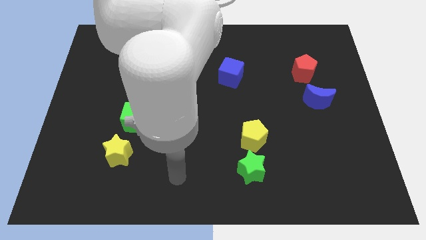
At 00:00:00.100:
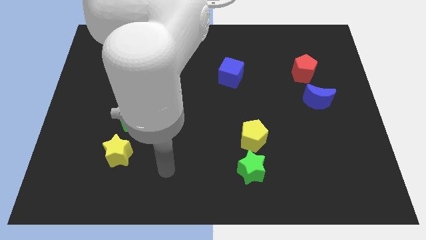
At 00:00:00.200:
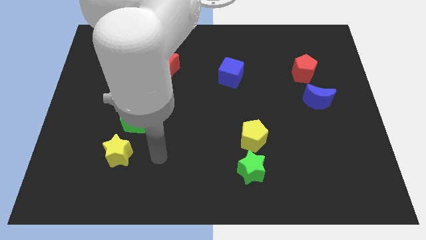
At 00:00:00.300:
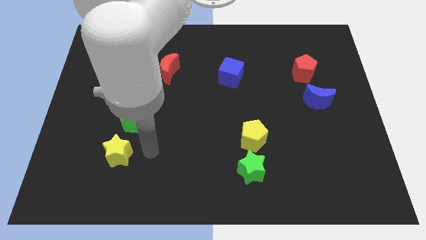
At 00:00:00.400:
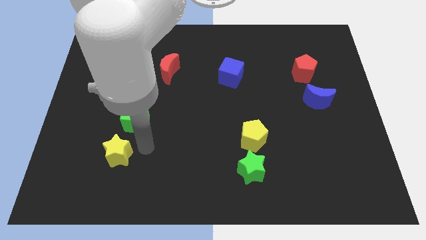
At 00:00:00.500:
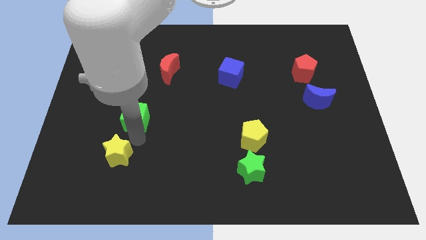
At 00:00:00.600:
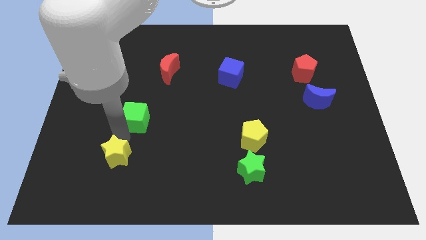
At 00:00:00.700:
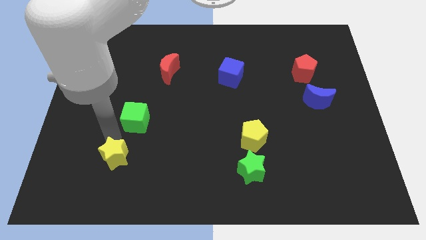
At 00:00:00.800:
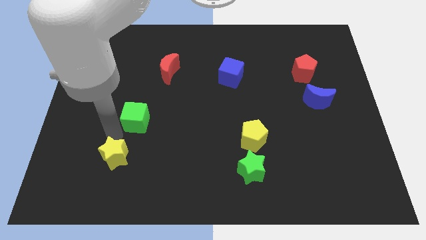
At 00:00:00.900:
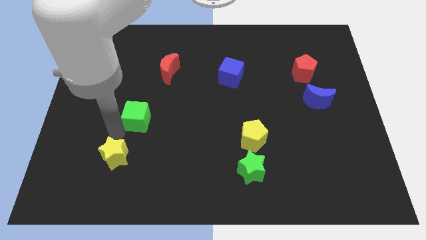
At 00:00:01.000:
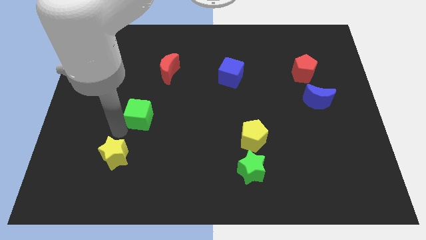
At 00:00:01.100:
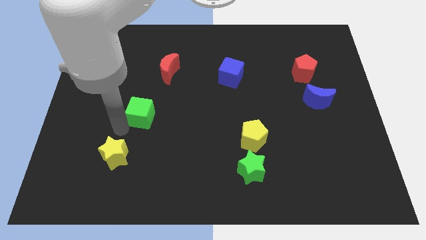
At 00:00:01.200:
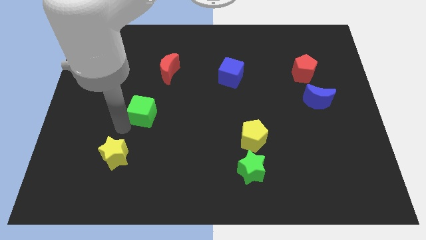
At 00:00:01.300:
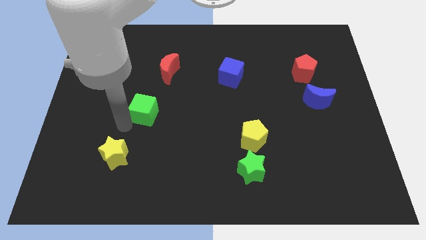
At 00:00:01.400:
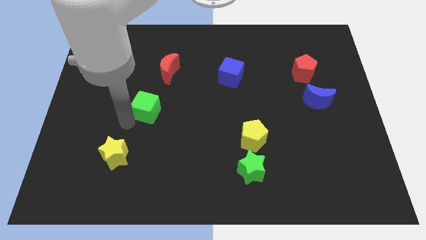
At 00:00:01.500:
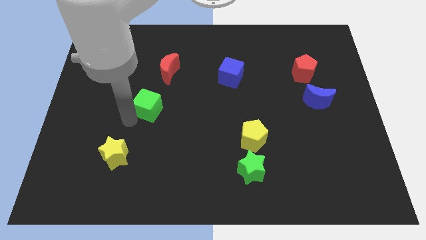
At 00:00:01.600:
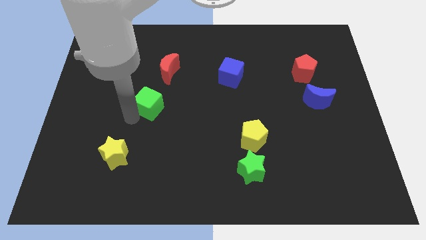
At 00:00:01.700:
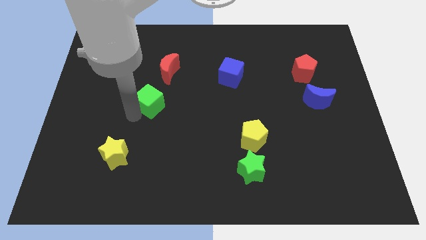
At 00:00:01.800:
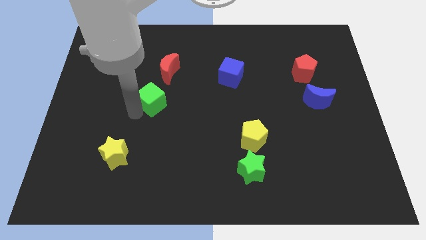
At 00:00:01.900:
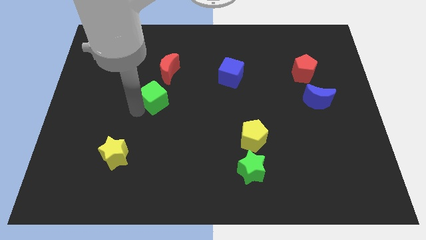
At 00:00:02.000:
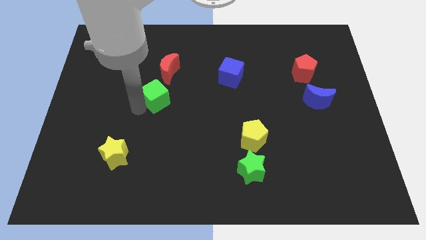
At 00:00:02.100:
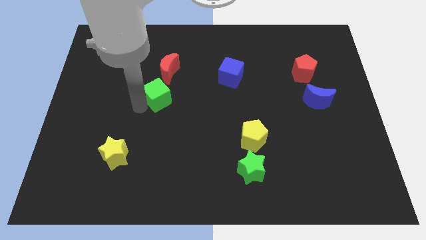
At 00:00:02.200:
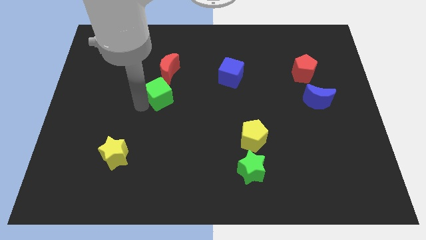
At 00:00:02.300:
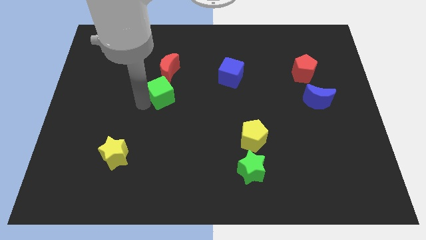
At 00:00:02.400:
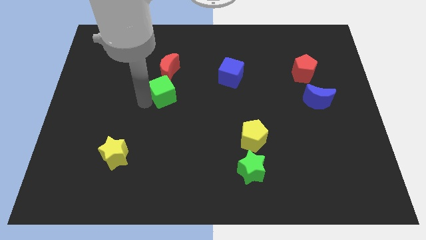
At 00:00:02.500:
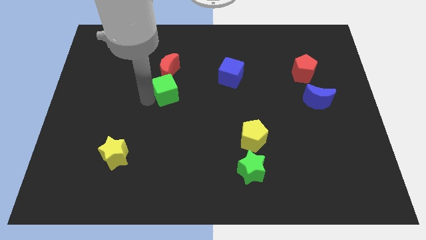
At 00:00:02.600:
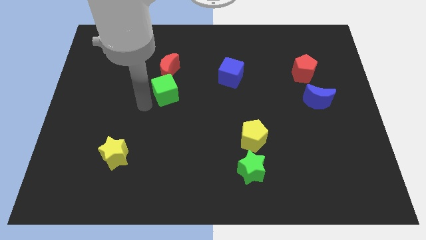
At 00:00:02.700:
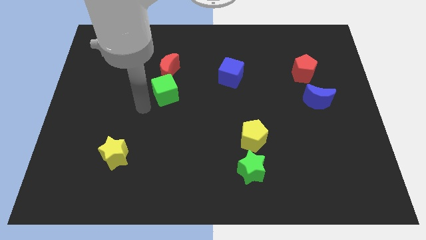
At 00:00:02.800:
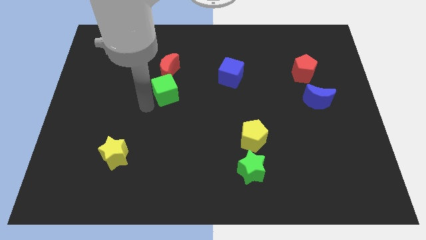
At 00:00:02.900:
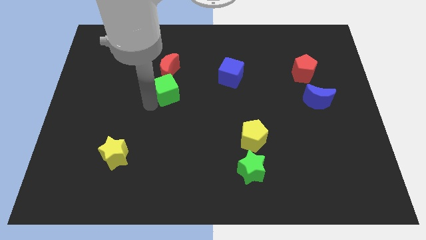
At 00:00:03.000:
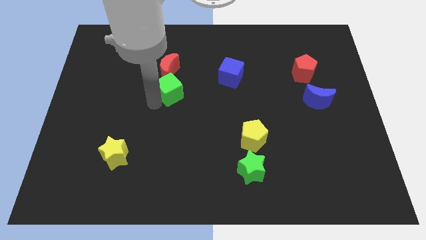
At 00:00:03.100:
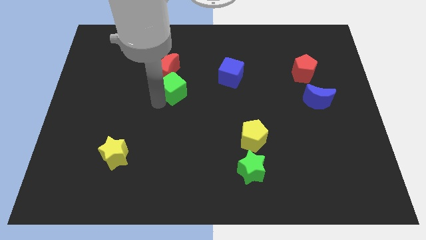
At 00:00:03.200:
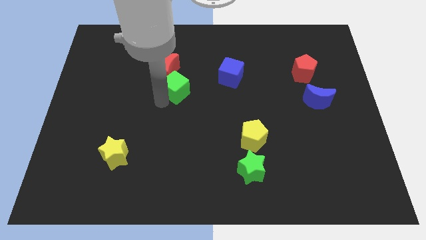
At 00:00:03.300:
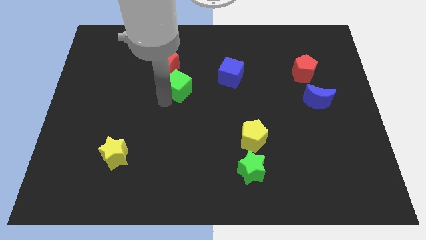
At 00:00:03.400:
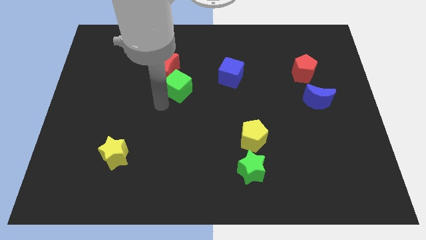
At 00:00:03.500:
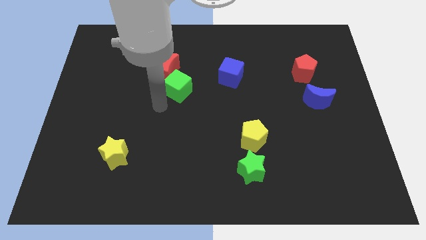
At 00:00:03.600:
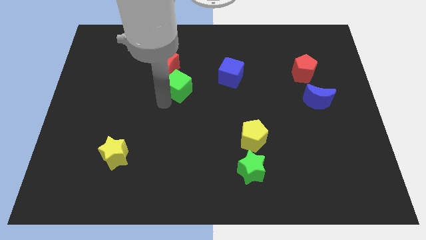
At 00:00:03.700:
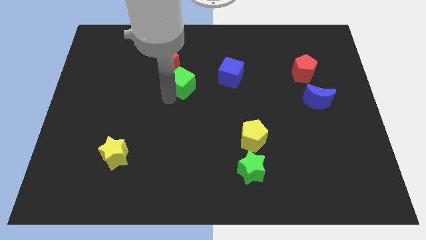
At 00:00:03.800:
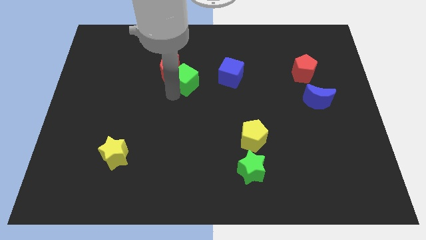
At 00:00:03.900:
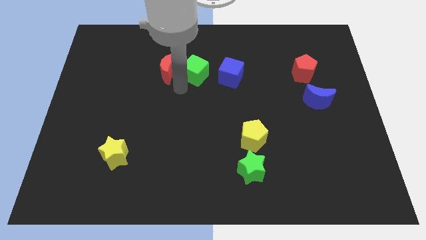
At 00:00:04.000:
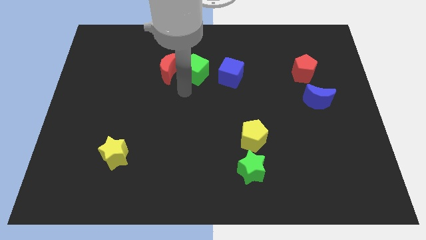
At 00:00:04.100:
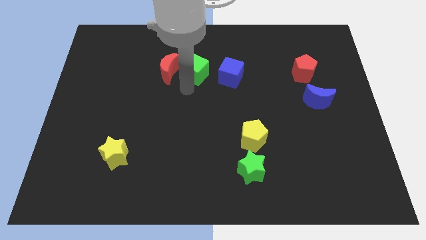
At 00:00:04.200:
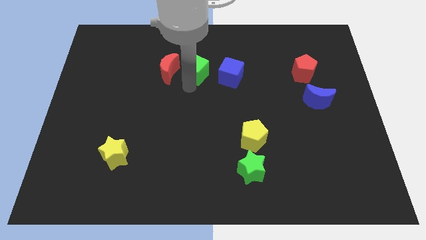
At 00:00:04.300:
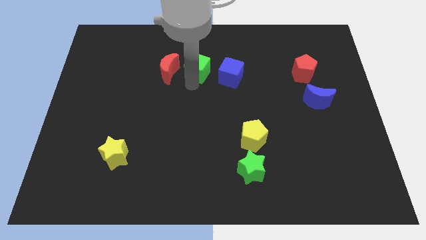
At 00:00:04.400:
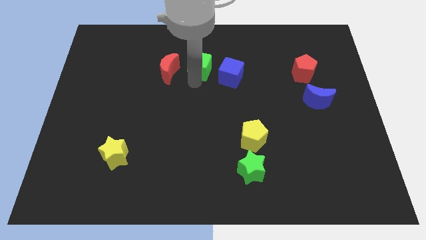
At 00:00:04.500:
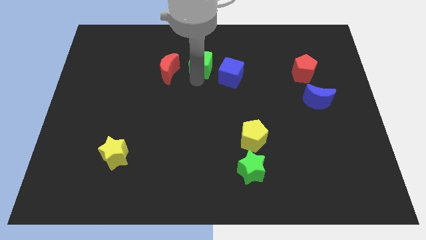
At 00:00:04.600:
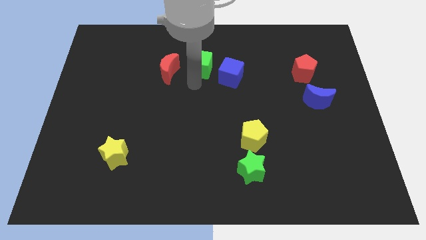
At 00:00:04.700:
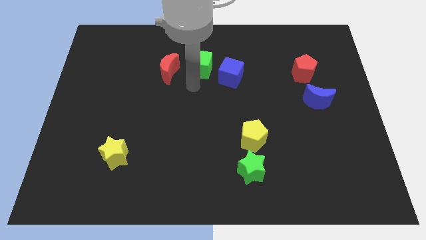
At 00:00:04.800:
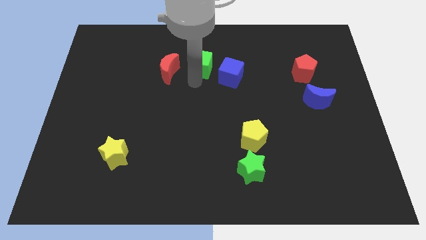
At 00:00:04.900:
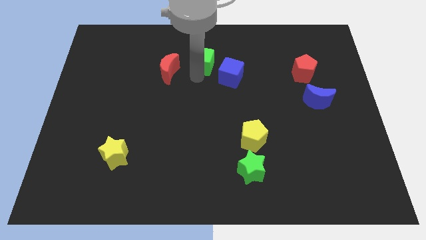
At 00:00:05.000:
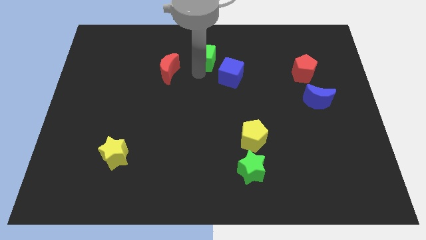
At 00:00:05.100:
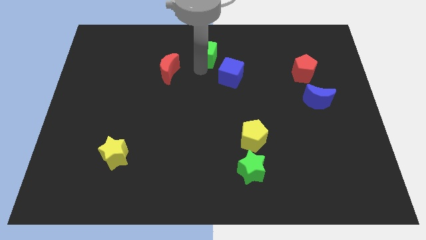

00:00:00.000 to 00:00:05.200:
push the green cube to the top side

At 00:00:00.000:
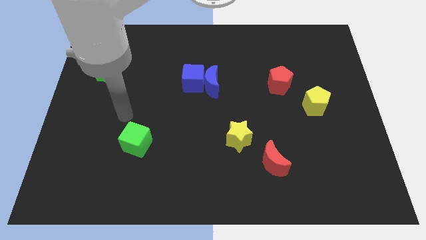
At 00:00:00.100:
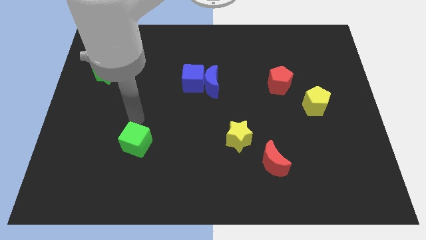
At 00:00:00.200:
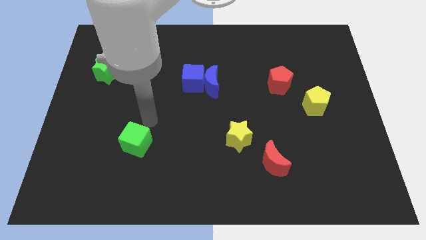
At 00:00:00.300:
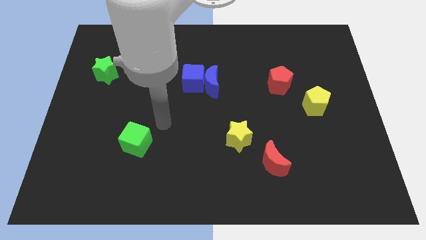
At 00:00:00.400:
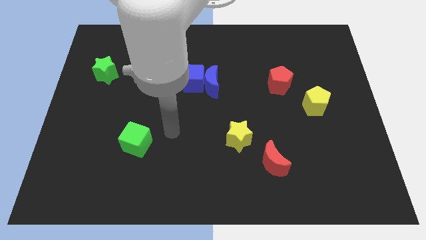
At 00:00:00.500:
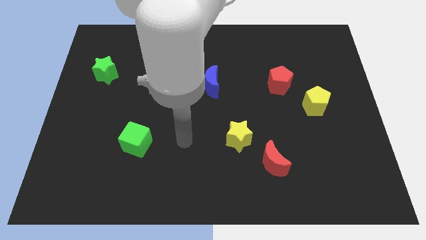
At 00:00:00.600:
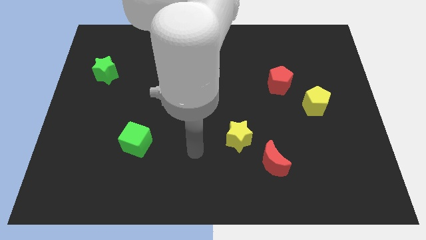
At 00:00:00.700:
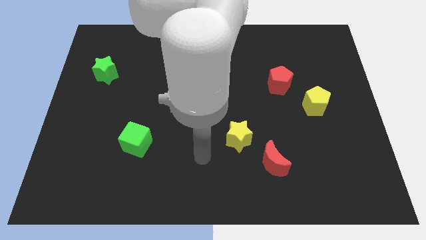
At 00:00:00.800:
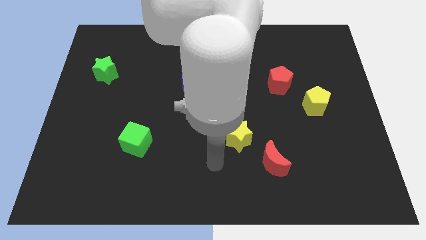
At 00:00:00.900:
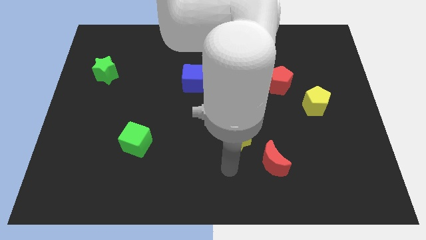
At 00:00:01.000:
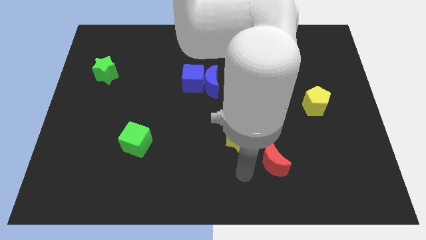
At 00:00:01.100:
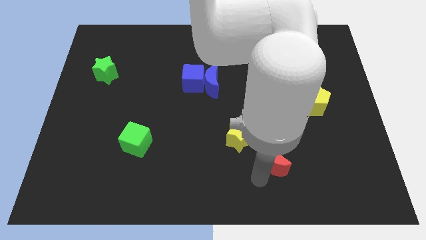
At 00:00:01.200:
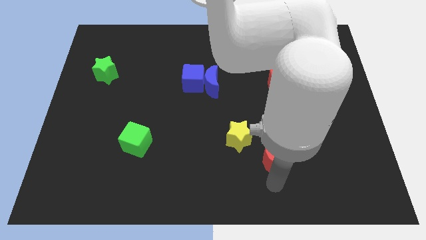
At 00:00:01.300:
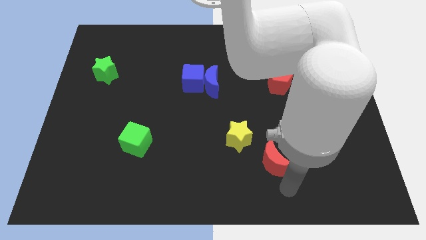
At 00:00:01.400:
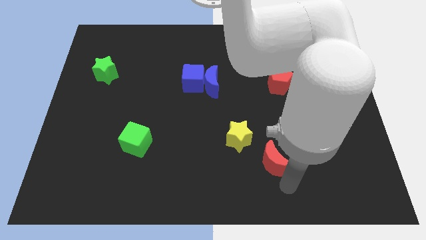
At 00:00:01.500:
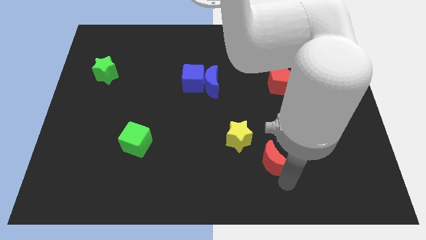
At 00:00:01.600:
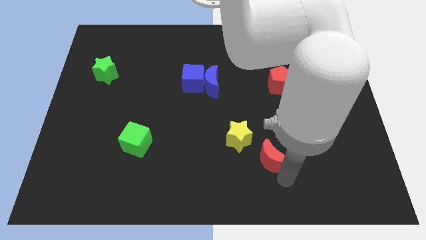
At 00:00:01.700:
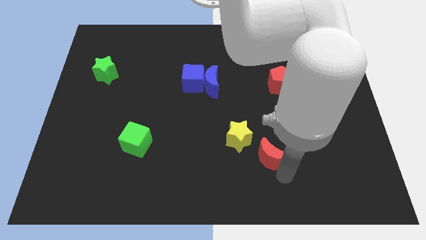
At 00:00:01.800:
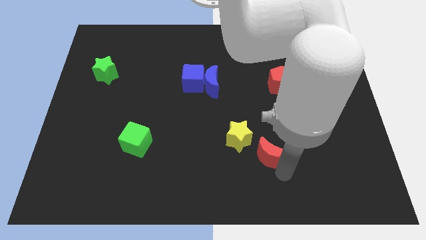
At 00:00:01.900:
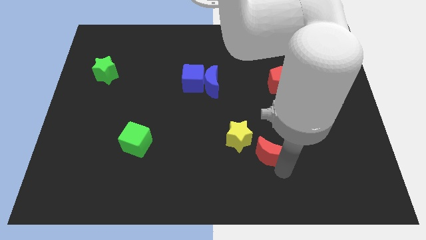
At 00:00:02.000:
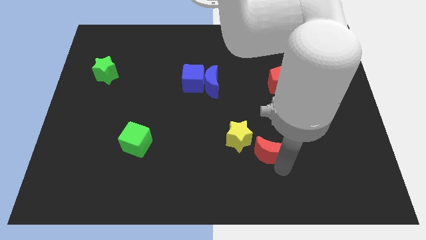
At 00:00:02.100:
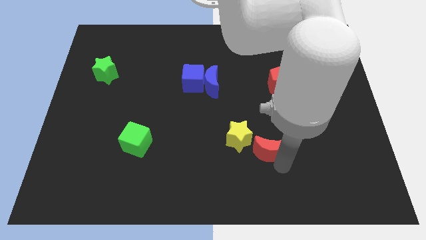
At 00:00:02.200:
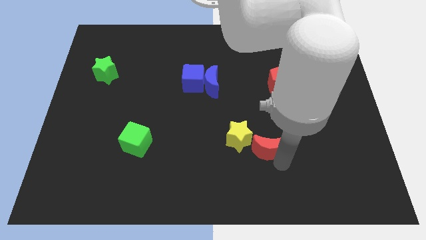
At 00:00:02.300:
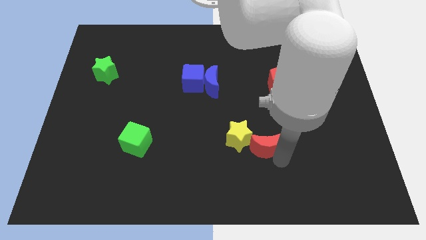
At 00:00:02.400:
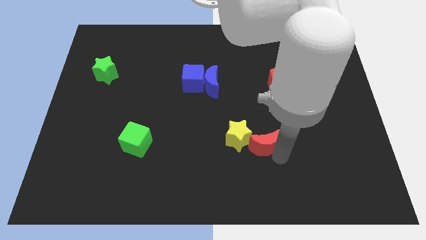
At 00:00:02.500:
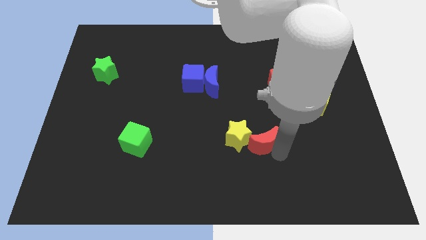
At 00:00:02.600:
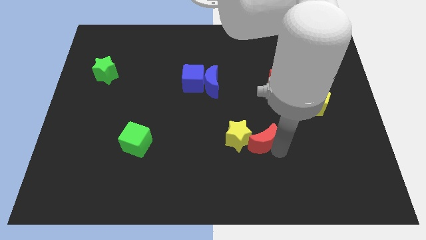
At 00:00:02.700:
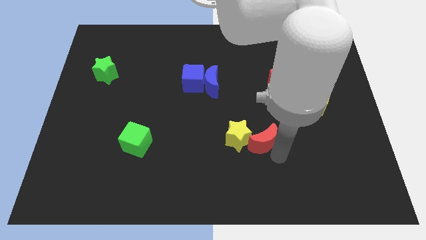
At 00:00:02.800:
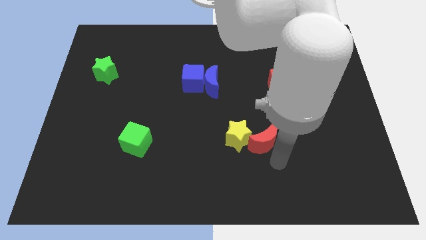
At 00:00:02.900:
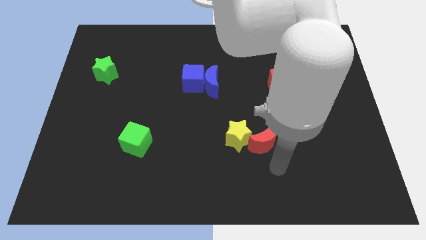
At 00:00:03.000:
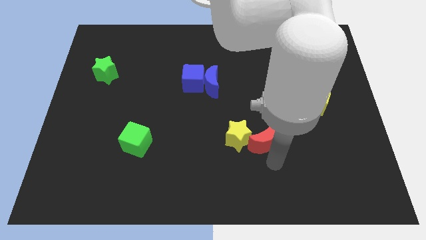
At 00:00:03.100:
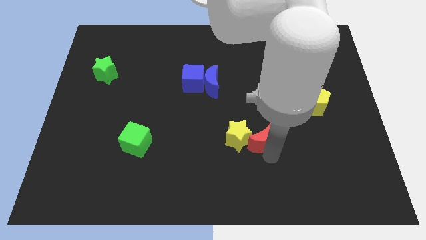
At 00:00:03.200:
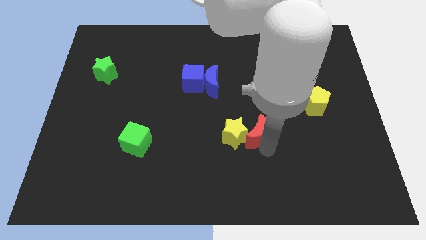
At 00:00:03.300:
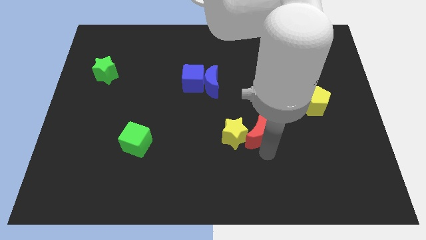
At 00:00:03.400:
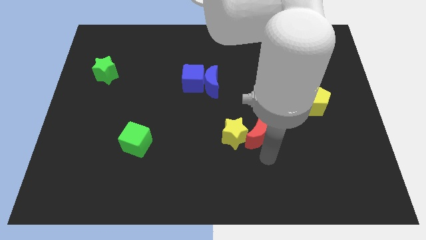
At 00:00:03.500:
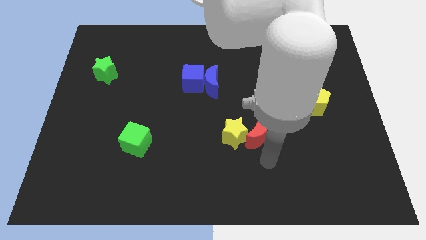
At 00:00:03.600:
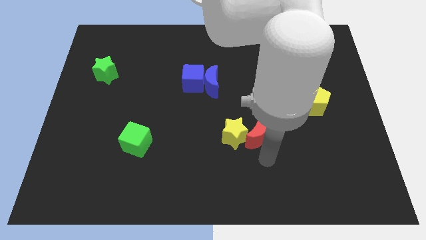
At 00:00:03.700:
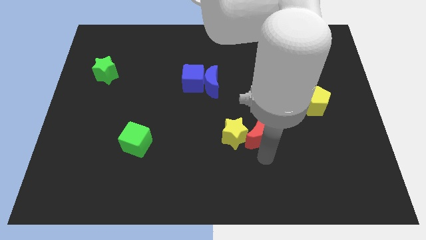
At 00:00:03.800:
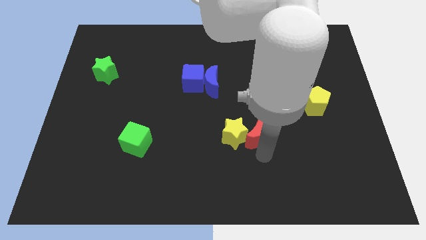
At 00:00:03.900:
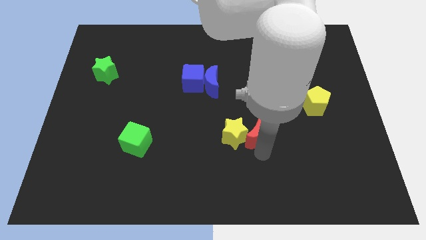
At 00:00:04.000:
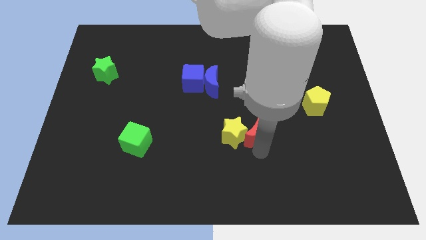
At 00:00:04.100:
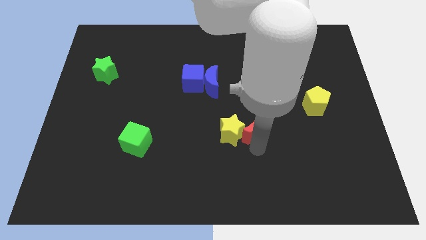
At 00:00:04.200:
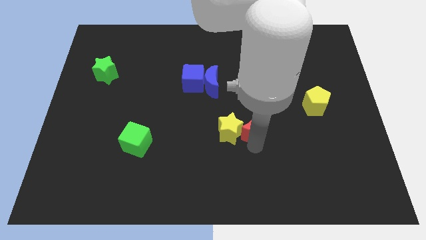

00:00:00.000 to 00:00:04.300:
slide the red moon to the center of the board
